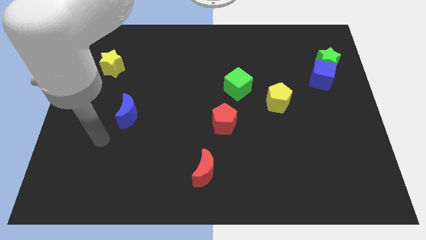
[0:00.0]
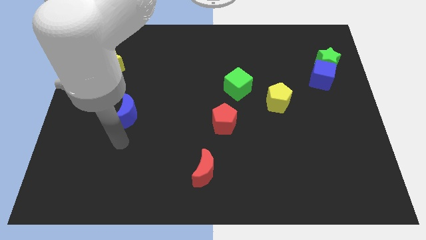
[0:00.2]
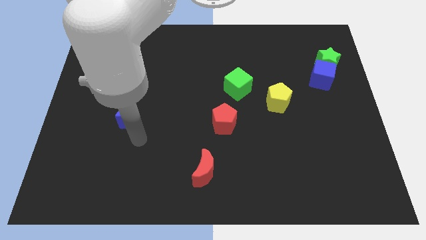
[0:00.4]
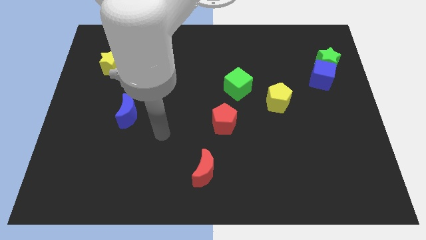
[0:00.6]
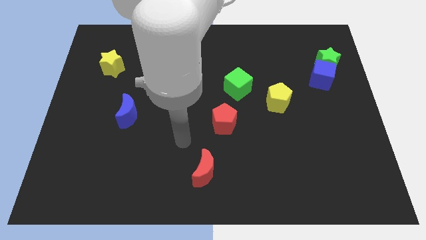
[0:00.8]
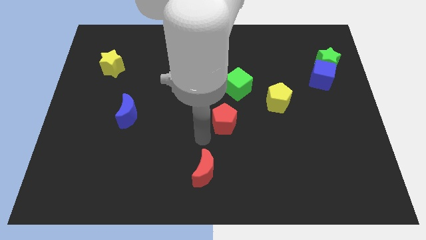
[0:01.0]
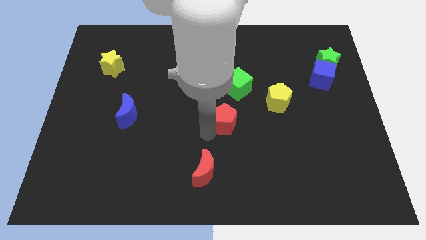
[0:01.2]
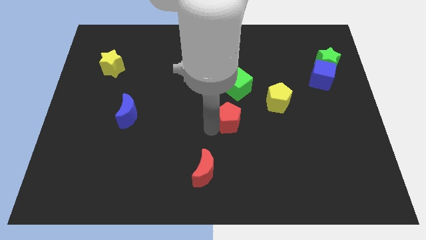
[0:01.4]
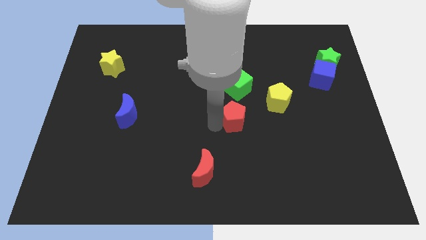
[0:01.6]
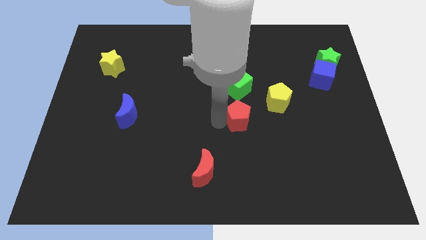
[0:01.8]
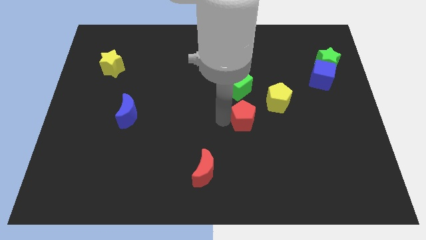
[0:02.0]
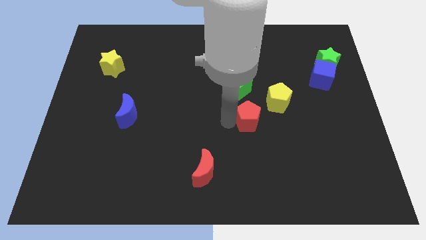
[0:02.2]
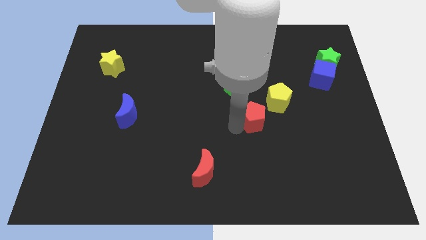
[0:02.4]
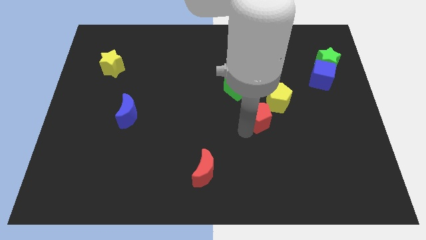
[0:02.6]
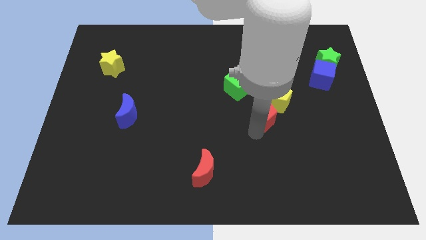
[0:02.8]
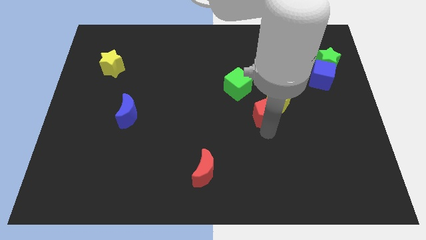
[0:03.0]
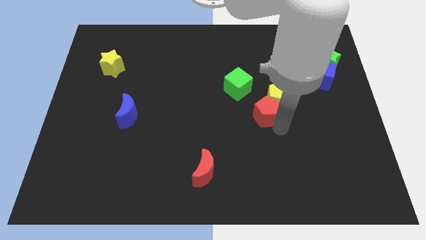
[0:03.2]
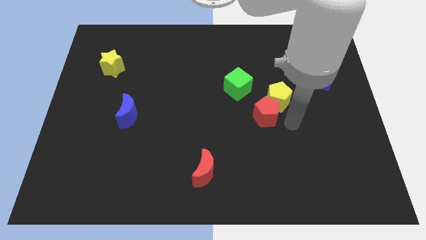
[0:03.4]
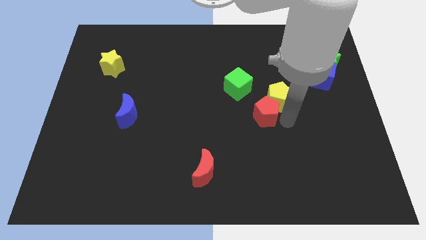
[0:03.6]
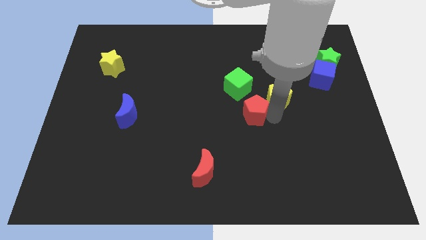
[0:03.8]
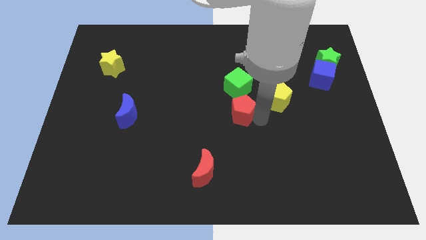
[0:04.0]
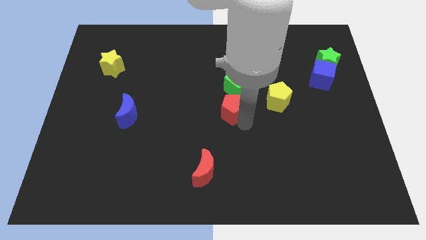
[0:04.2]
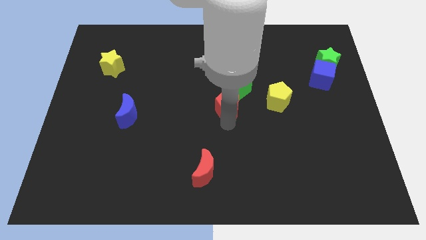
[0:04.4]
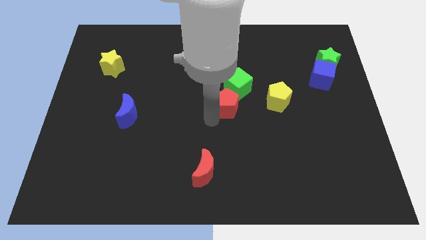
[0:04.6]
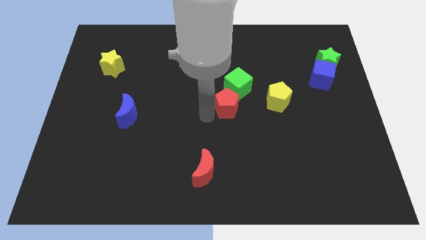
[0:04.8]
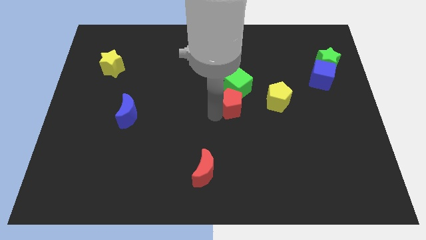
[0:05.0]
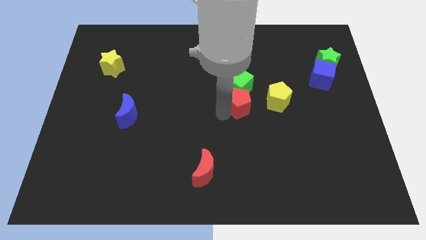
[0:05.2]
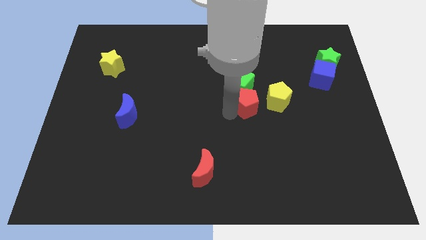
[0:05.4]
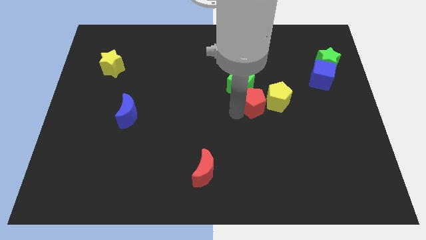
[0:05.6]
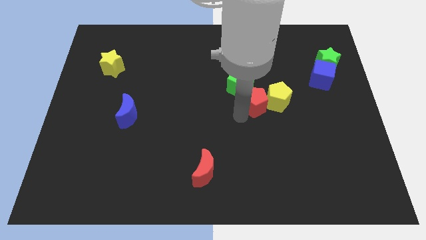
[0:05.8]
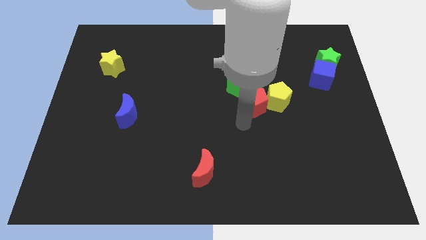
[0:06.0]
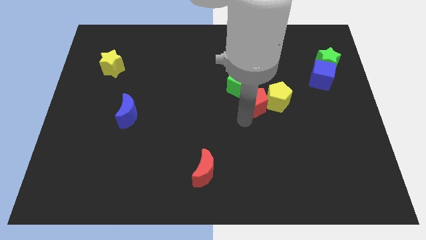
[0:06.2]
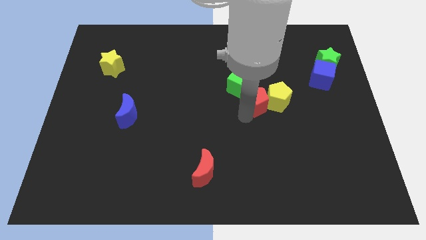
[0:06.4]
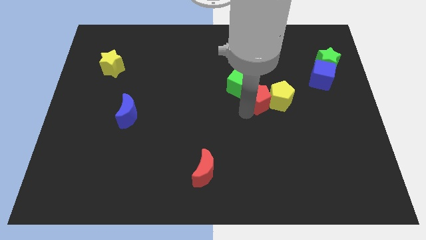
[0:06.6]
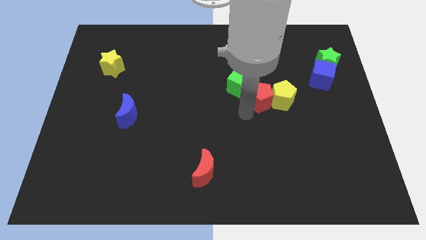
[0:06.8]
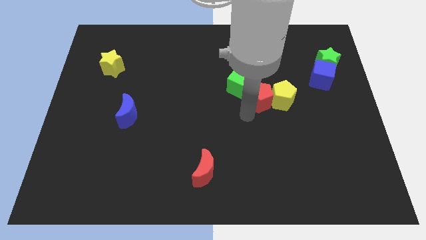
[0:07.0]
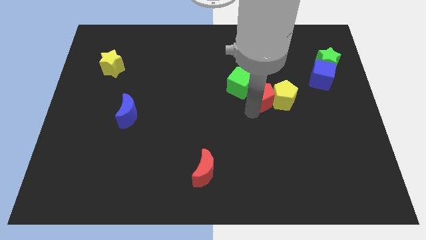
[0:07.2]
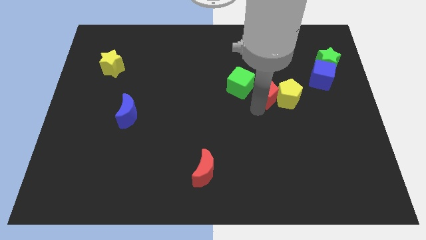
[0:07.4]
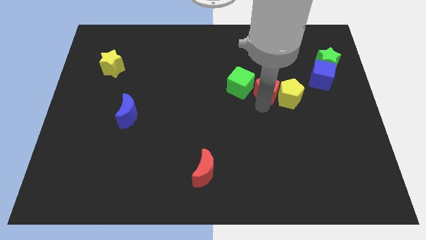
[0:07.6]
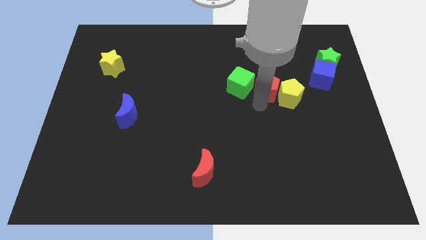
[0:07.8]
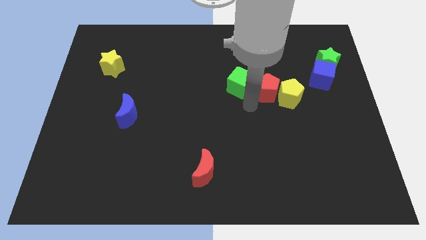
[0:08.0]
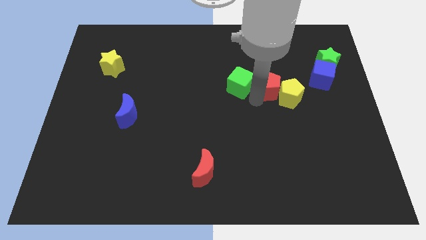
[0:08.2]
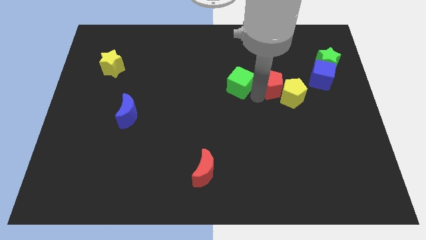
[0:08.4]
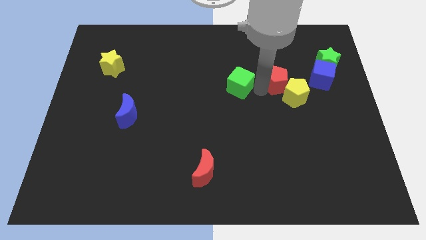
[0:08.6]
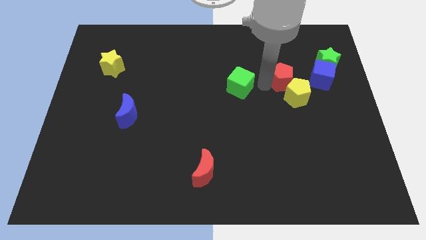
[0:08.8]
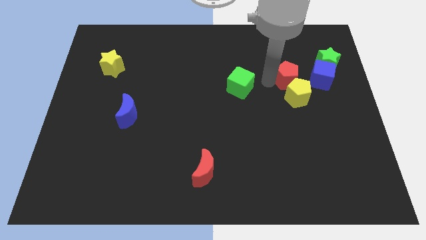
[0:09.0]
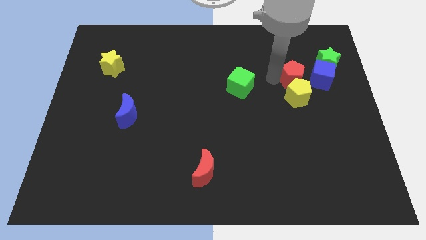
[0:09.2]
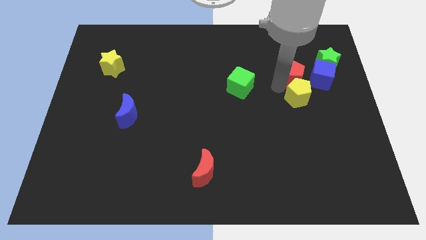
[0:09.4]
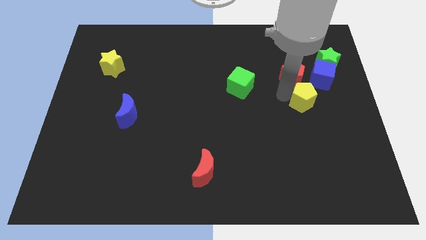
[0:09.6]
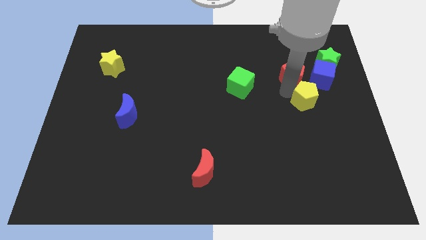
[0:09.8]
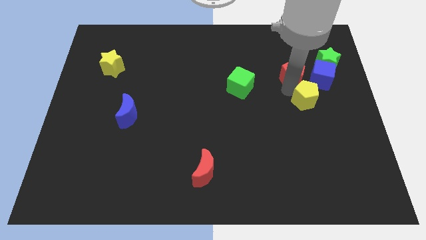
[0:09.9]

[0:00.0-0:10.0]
slide the red pentagon to the top left side of the blue cube

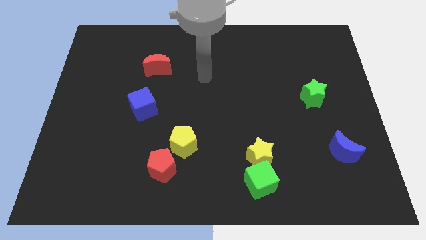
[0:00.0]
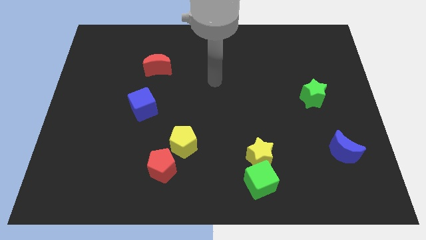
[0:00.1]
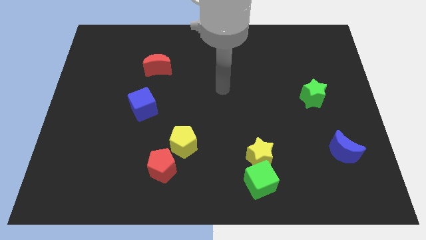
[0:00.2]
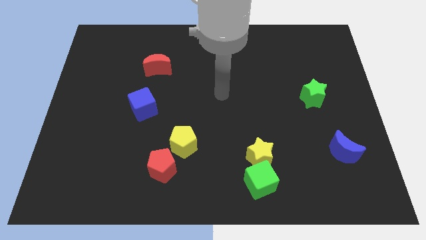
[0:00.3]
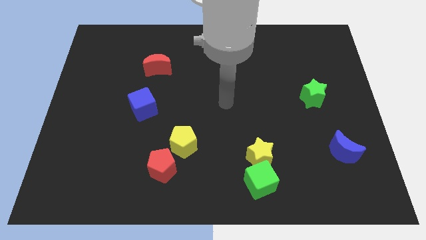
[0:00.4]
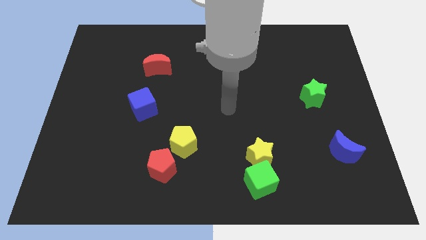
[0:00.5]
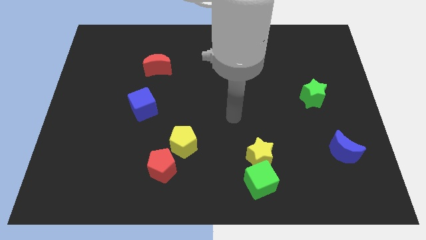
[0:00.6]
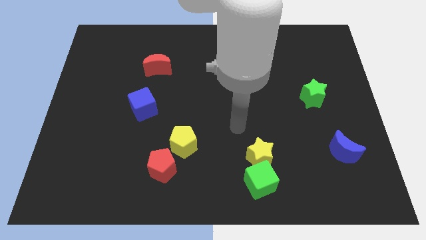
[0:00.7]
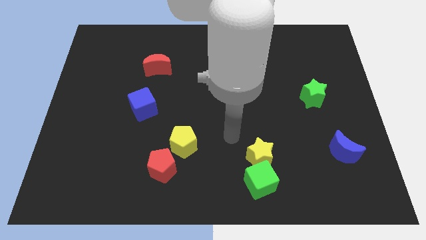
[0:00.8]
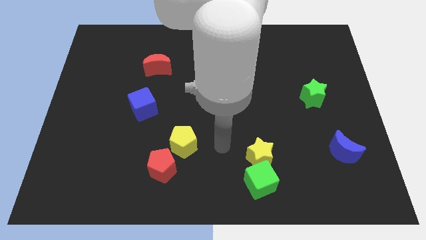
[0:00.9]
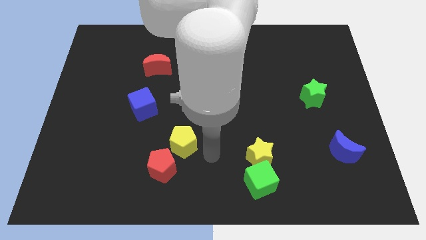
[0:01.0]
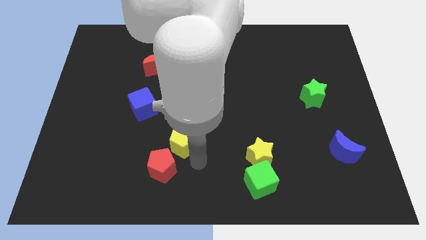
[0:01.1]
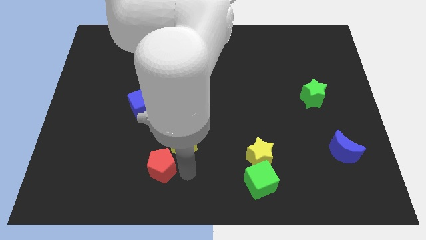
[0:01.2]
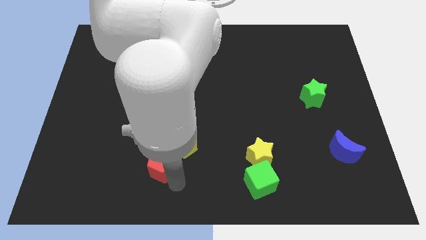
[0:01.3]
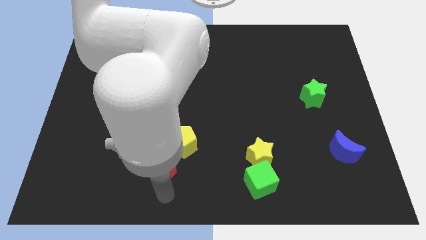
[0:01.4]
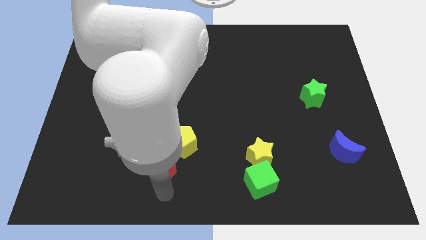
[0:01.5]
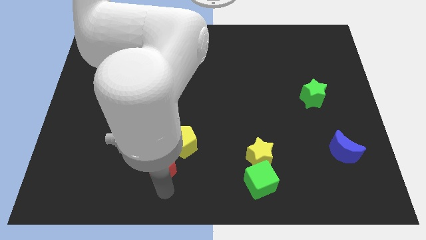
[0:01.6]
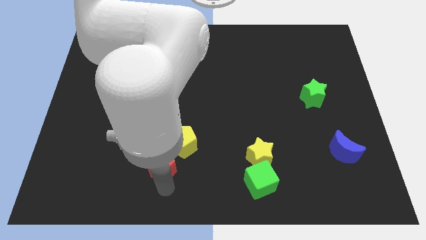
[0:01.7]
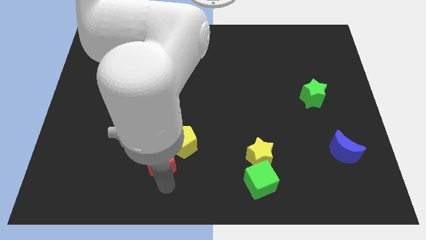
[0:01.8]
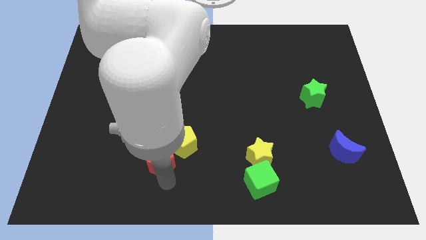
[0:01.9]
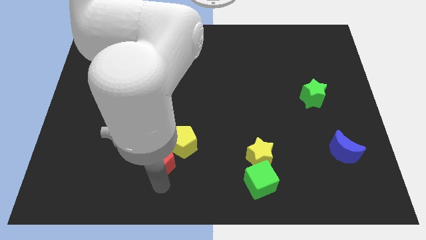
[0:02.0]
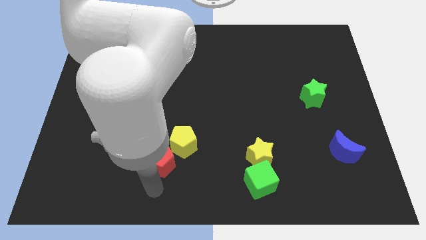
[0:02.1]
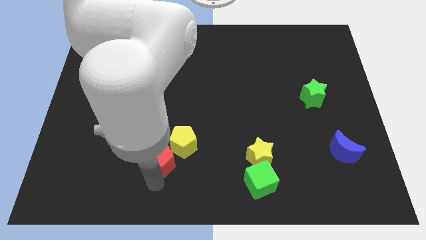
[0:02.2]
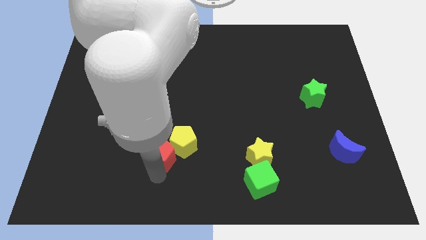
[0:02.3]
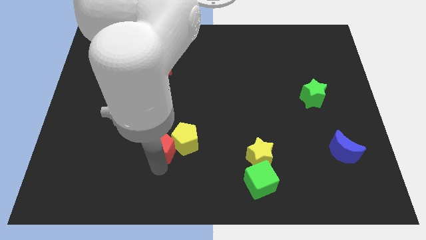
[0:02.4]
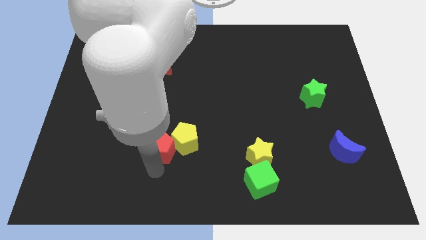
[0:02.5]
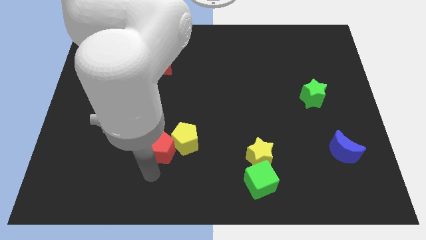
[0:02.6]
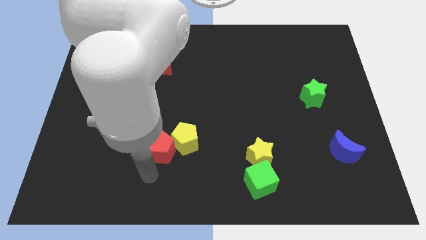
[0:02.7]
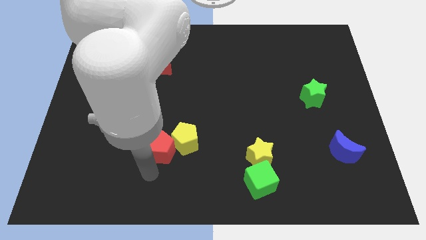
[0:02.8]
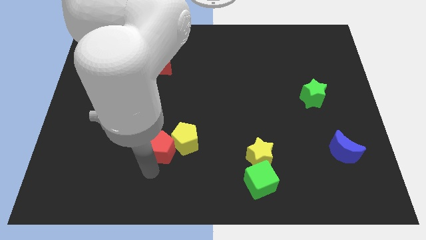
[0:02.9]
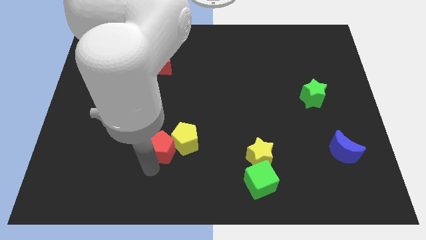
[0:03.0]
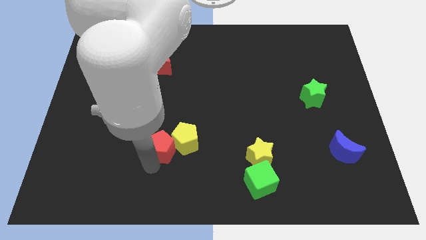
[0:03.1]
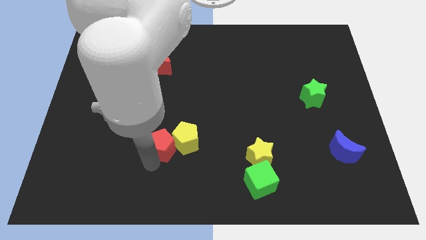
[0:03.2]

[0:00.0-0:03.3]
put the red pentagon to the top left of the yellow pentagon

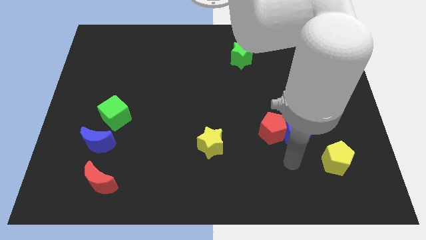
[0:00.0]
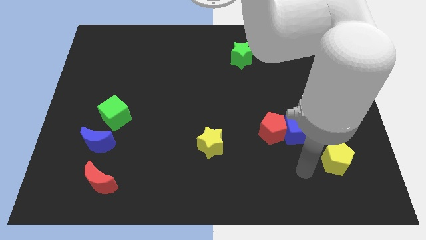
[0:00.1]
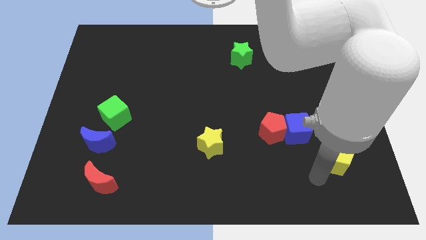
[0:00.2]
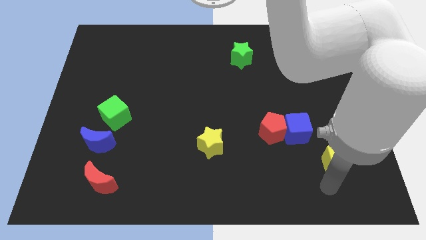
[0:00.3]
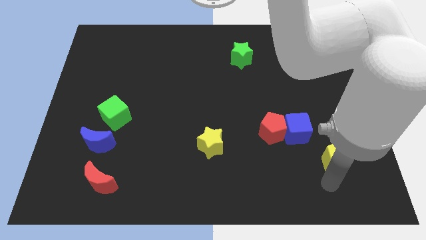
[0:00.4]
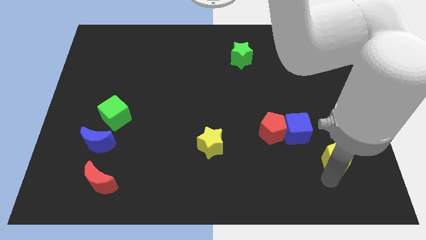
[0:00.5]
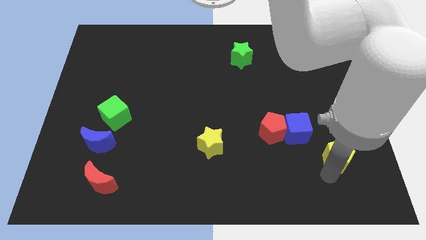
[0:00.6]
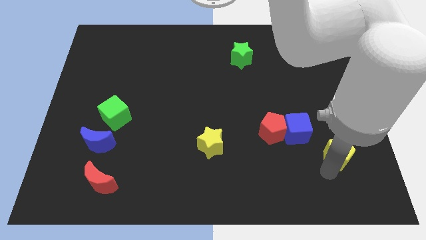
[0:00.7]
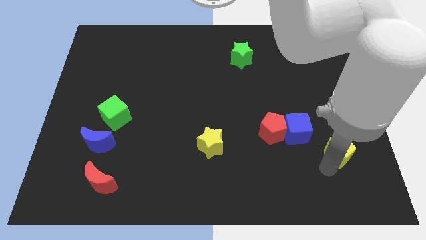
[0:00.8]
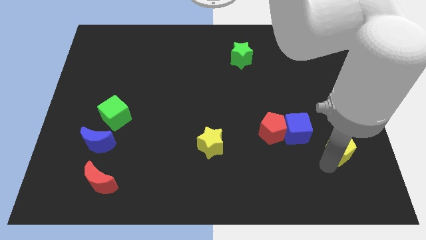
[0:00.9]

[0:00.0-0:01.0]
push the yellow pentagon to the right of the blue cube
